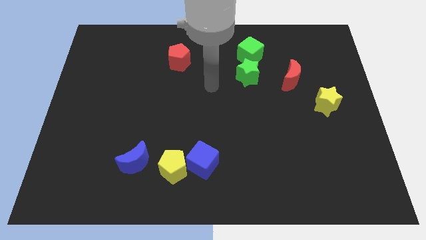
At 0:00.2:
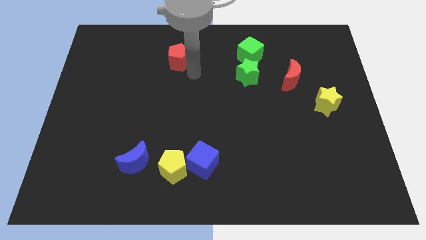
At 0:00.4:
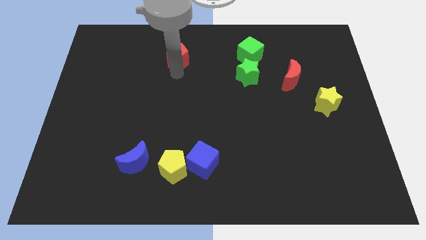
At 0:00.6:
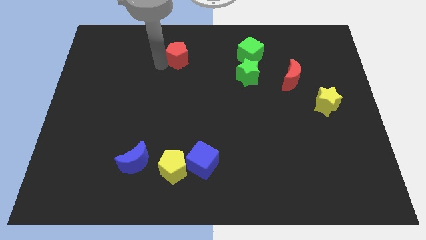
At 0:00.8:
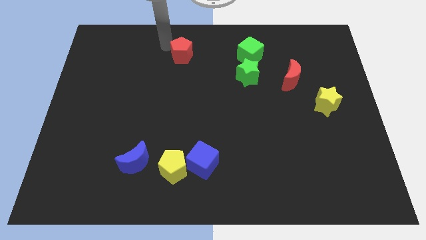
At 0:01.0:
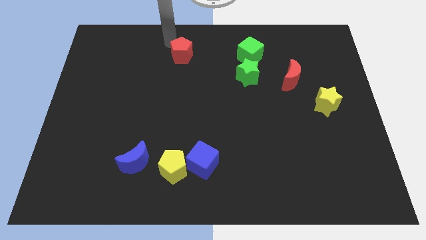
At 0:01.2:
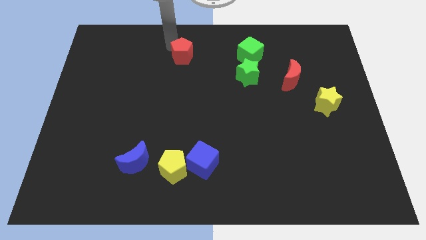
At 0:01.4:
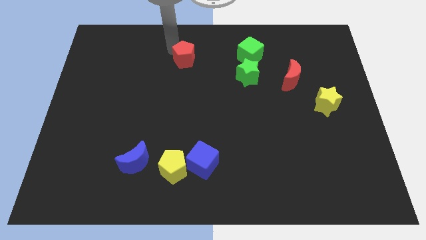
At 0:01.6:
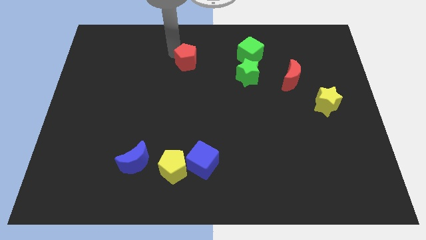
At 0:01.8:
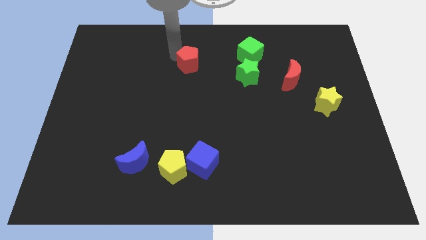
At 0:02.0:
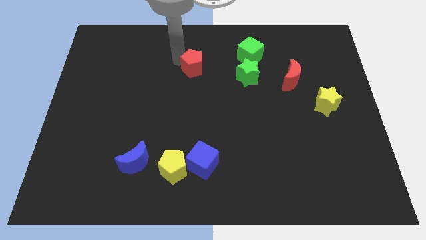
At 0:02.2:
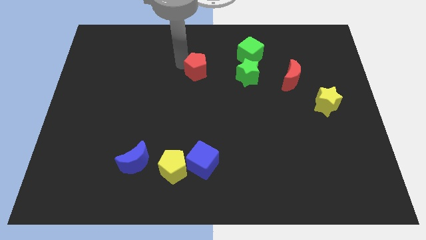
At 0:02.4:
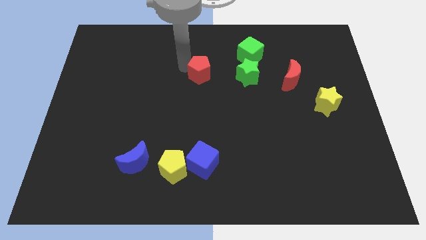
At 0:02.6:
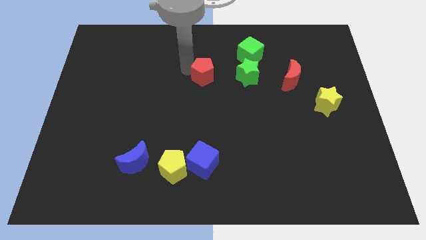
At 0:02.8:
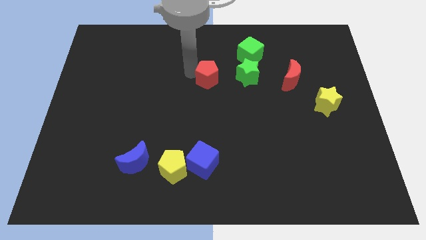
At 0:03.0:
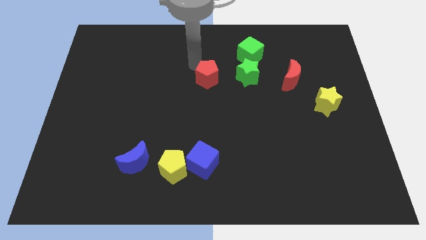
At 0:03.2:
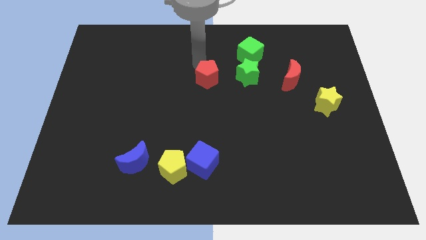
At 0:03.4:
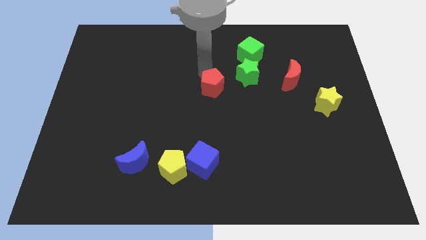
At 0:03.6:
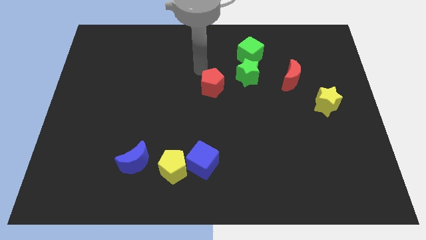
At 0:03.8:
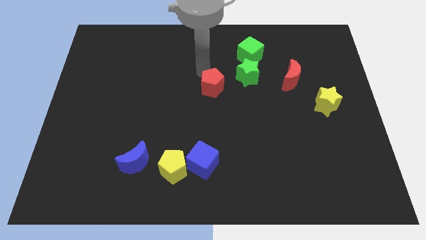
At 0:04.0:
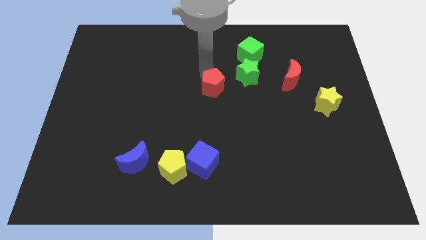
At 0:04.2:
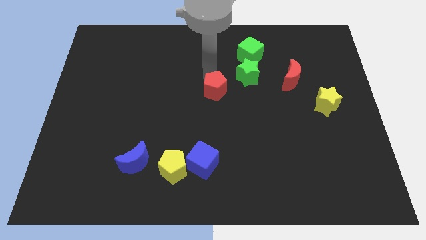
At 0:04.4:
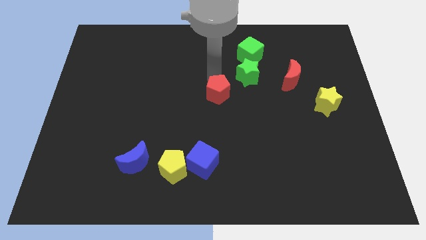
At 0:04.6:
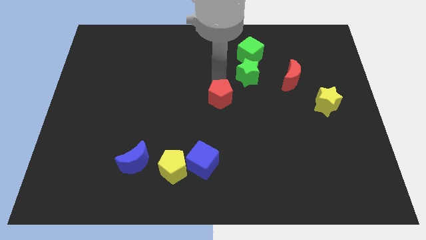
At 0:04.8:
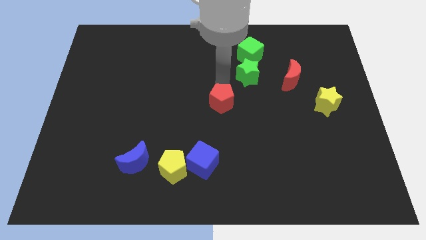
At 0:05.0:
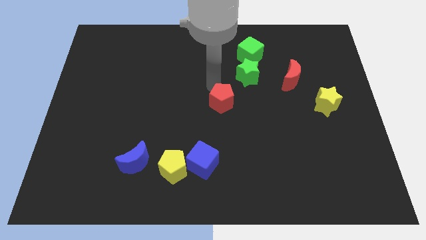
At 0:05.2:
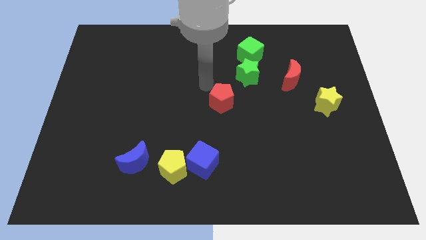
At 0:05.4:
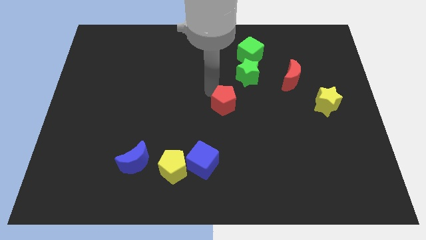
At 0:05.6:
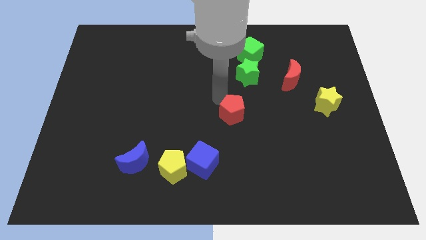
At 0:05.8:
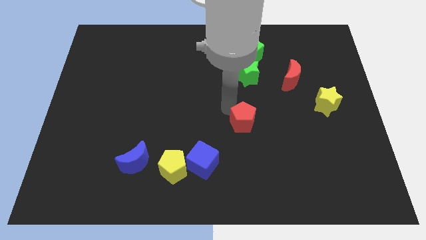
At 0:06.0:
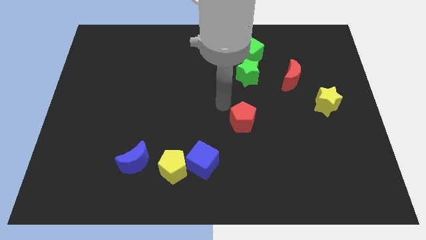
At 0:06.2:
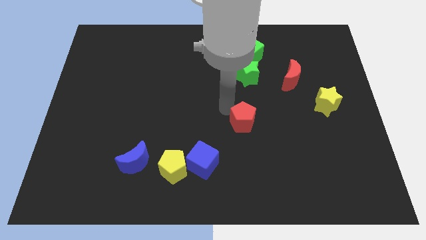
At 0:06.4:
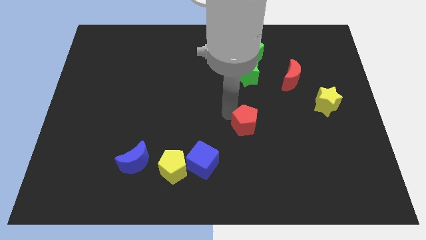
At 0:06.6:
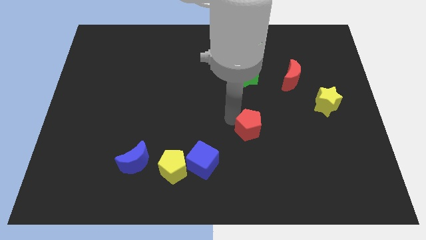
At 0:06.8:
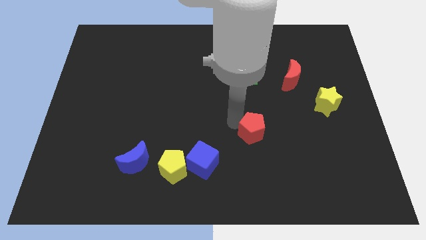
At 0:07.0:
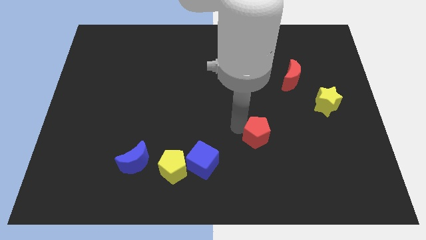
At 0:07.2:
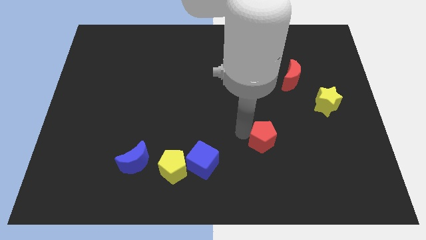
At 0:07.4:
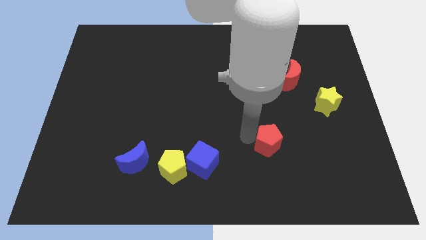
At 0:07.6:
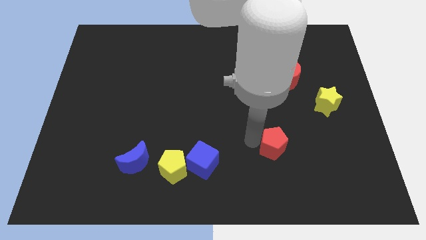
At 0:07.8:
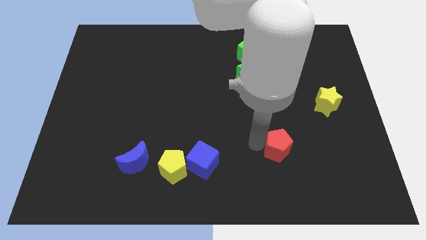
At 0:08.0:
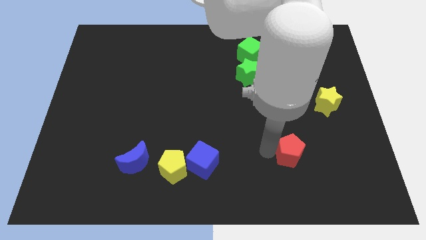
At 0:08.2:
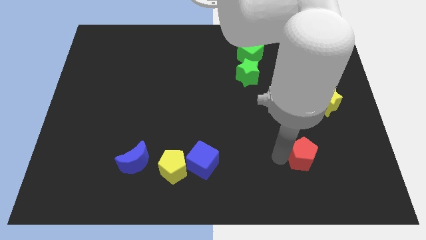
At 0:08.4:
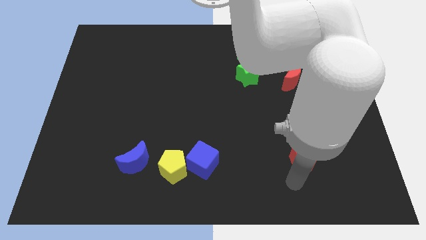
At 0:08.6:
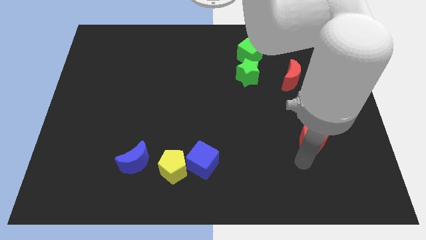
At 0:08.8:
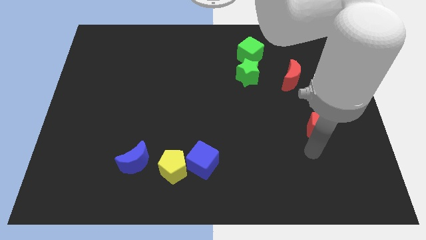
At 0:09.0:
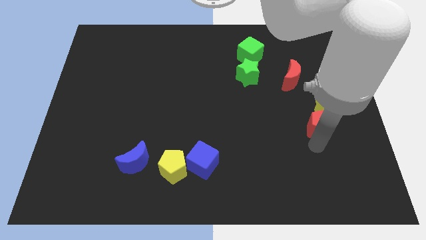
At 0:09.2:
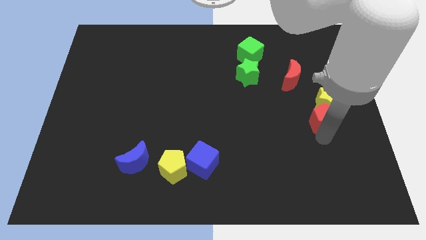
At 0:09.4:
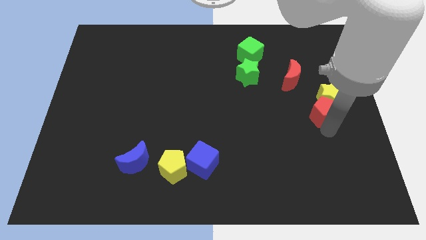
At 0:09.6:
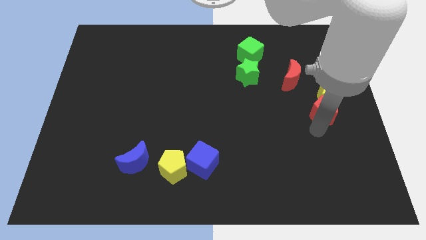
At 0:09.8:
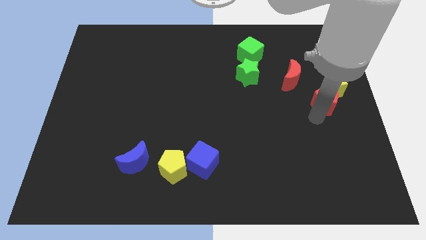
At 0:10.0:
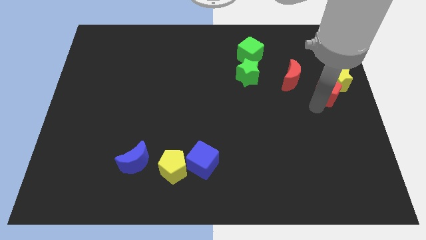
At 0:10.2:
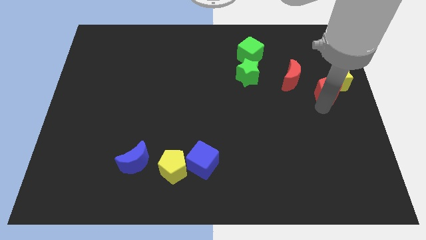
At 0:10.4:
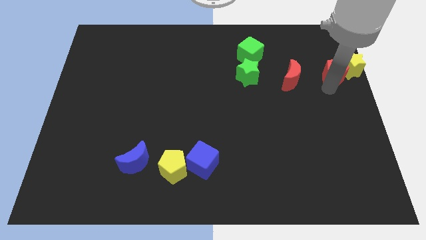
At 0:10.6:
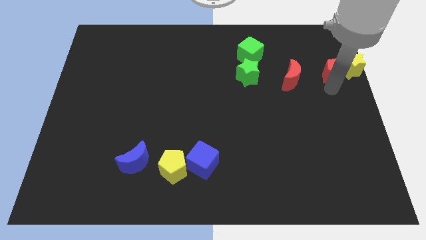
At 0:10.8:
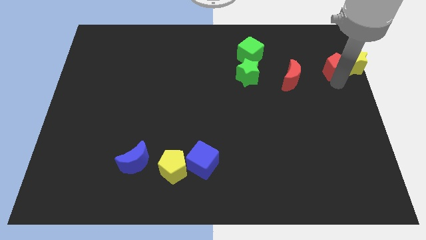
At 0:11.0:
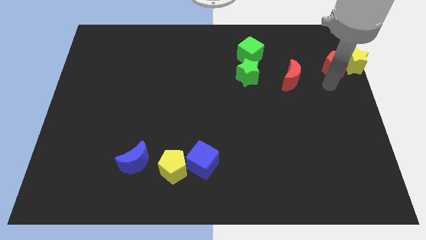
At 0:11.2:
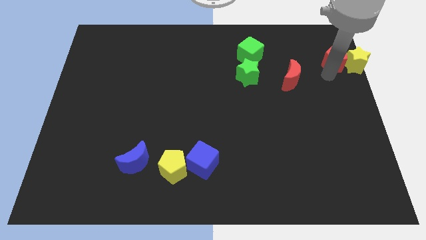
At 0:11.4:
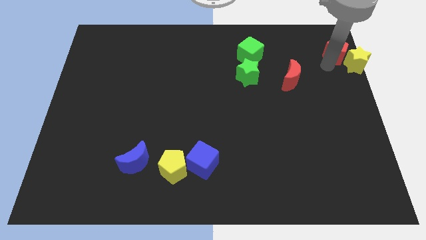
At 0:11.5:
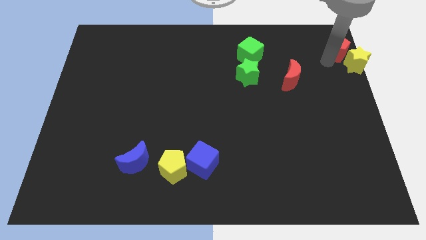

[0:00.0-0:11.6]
push the red pentagon to the top right
